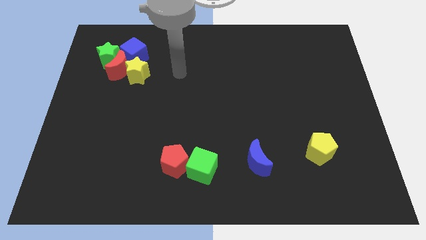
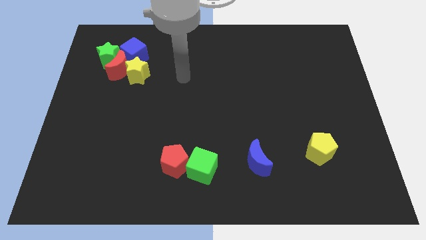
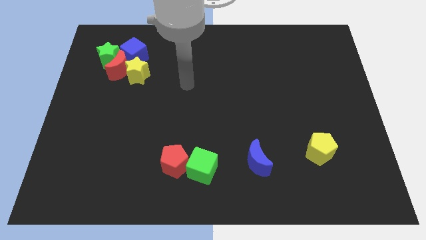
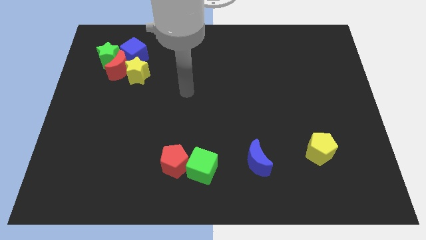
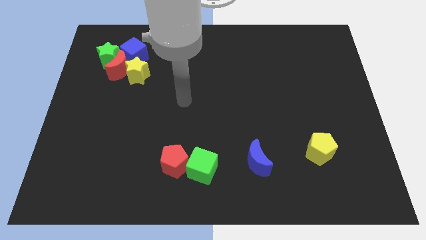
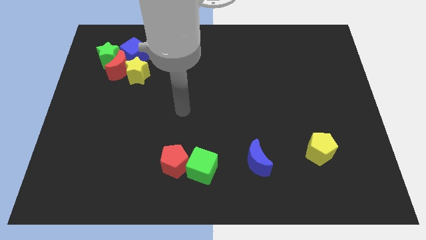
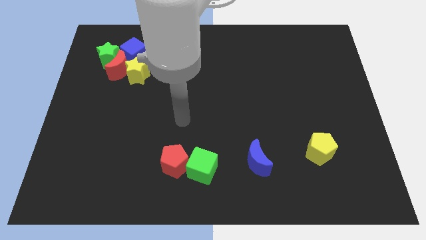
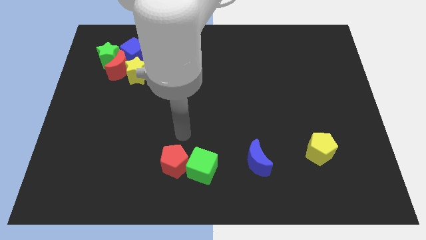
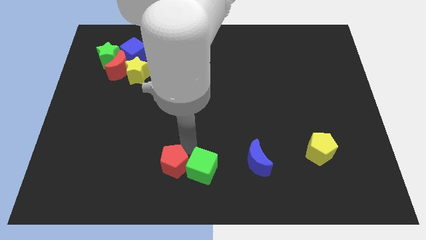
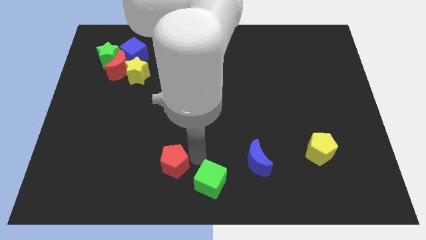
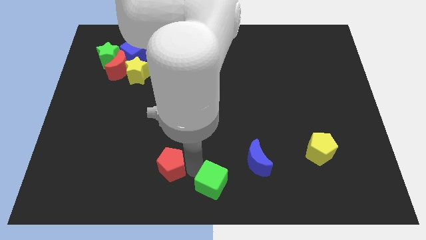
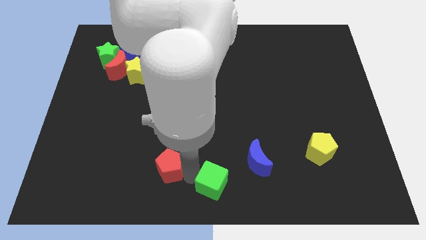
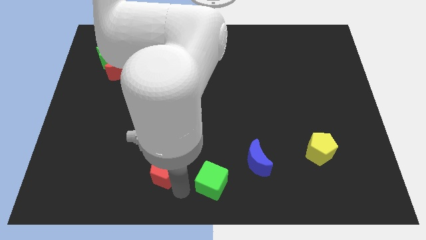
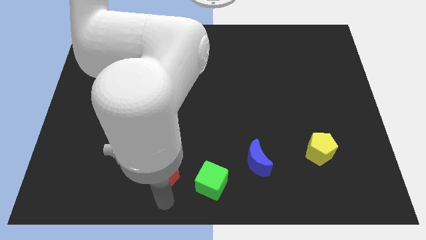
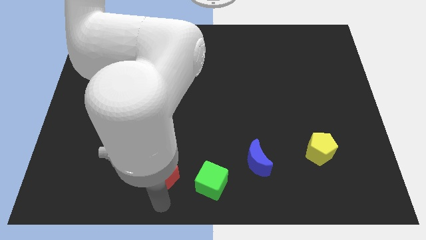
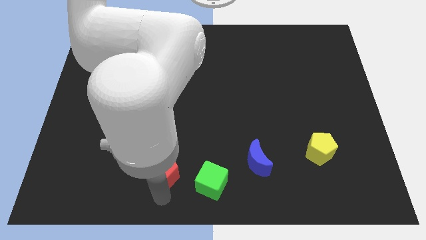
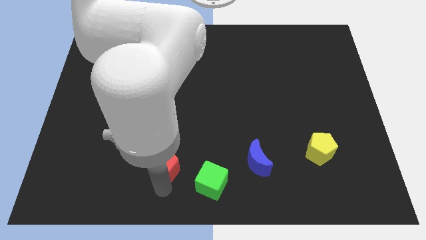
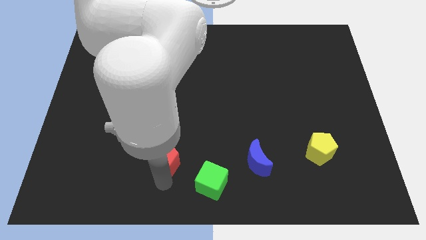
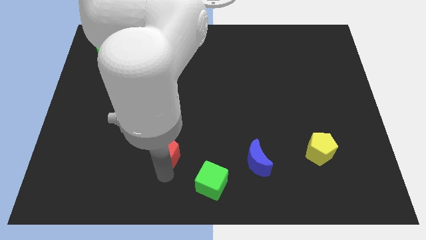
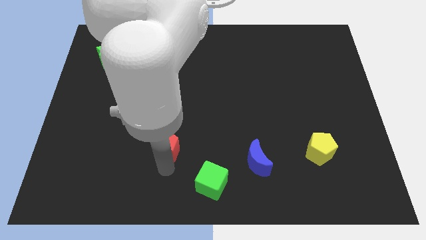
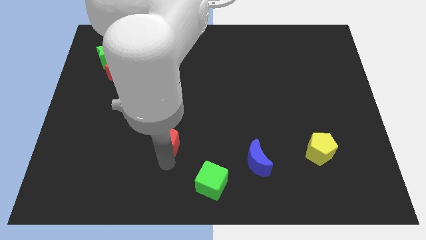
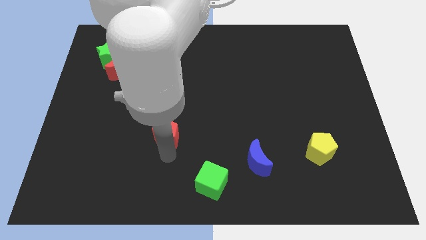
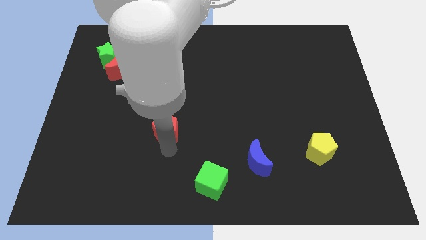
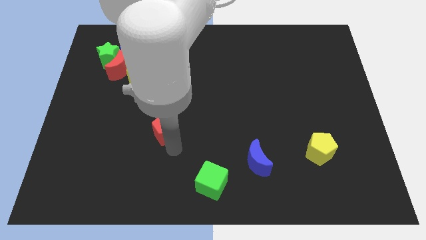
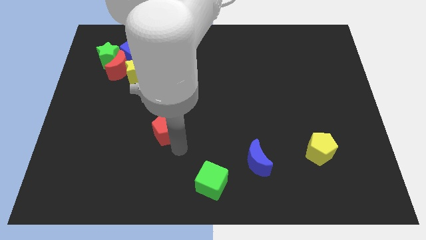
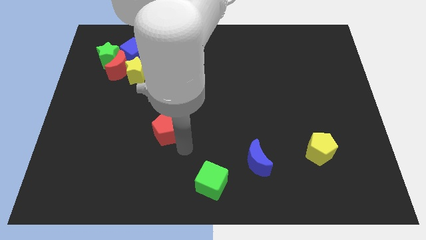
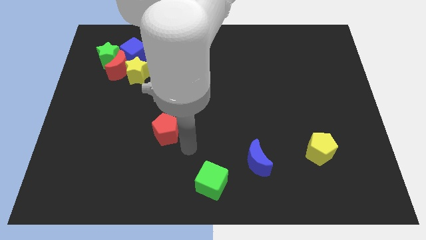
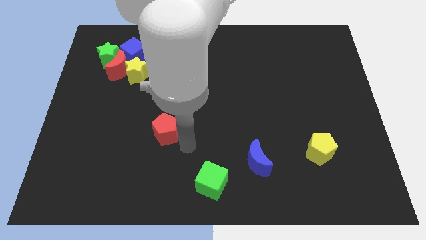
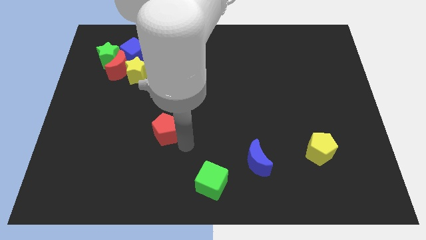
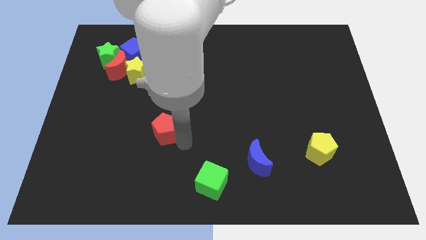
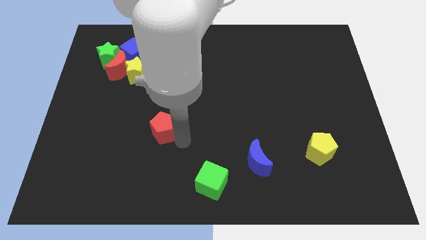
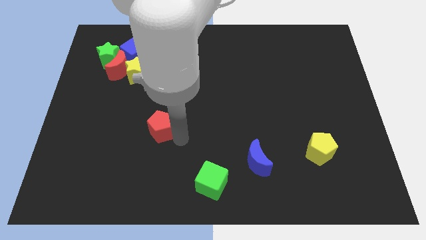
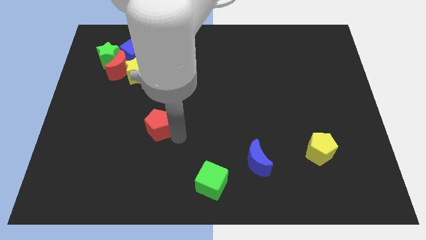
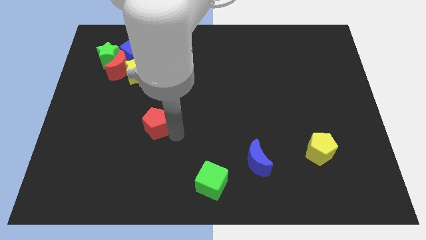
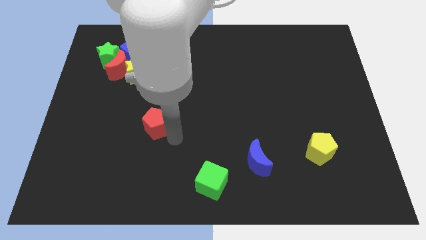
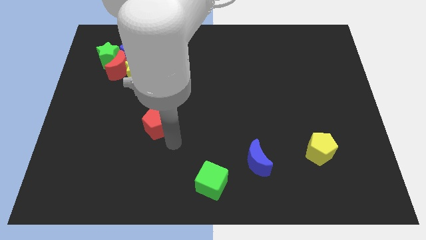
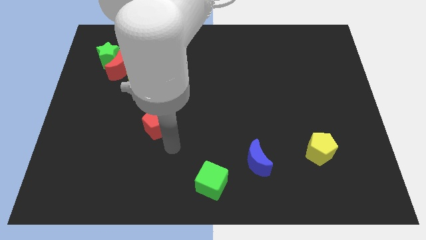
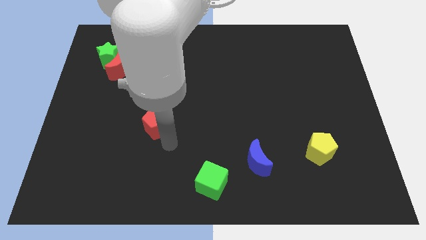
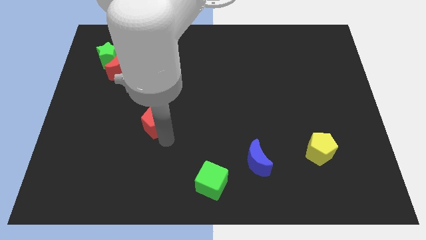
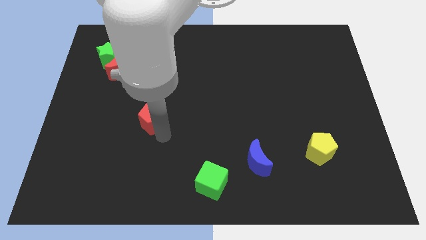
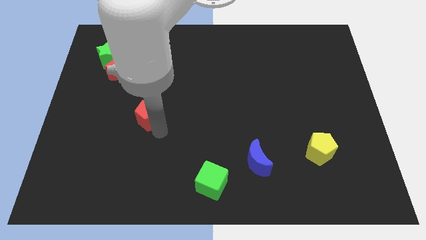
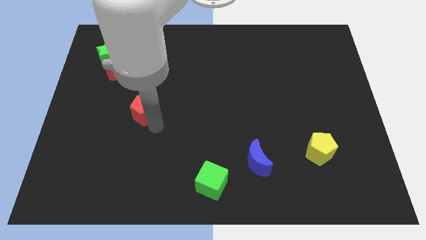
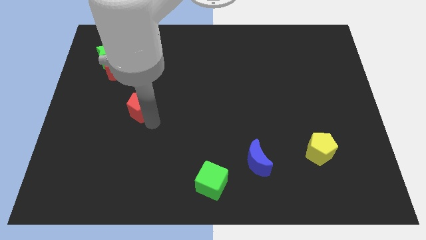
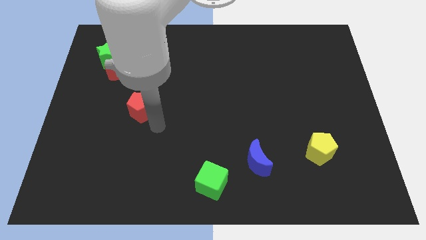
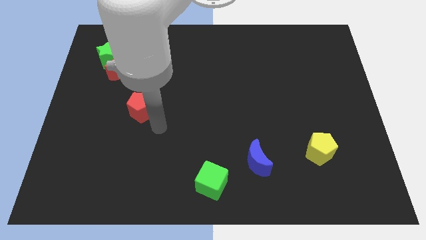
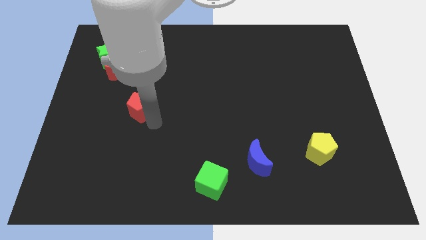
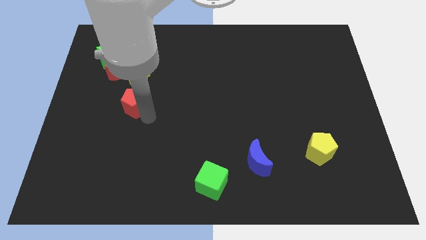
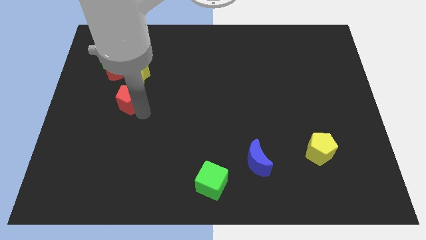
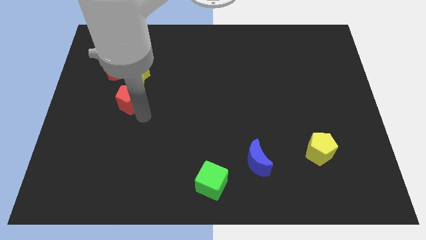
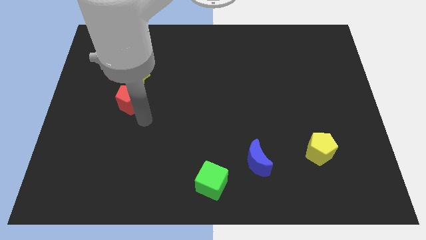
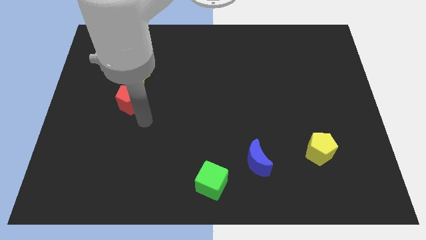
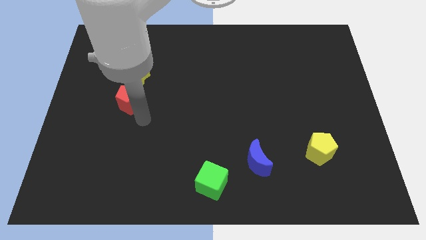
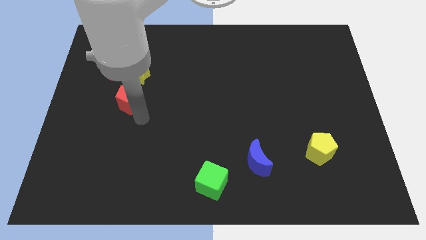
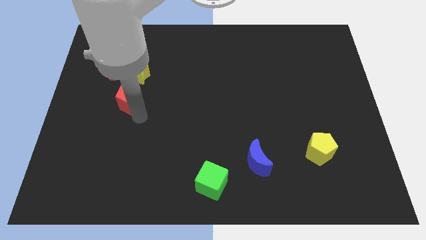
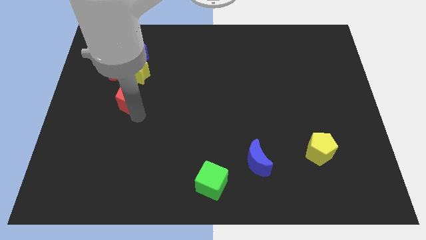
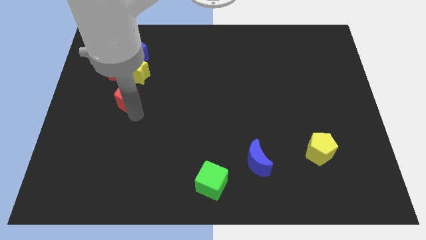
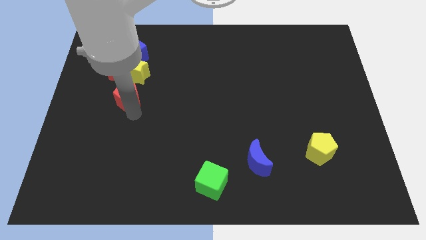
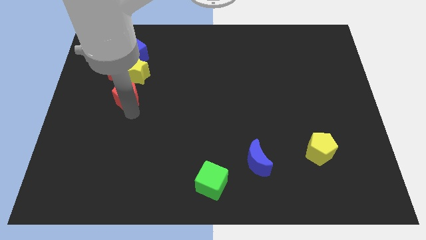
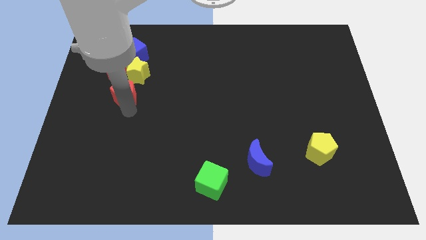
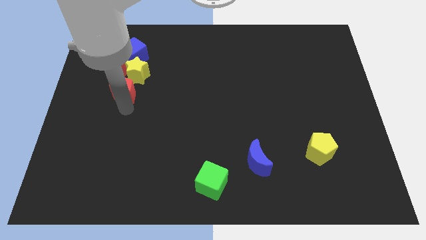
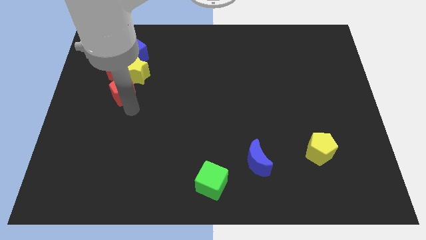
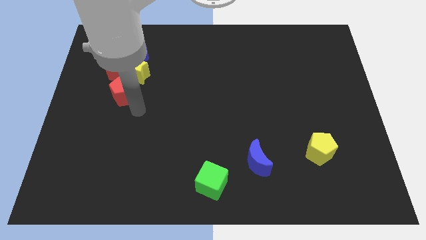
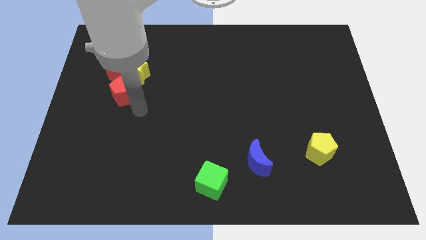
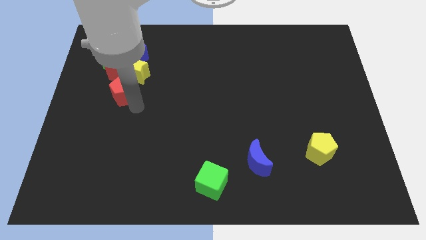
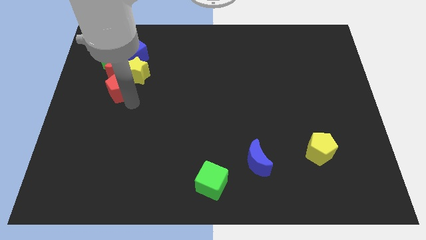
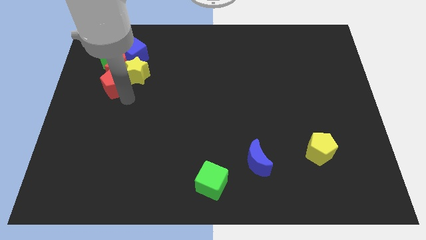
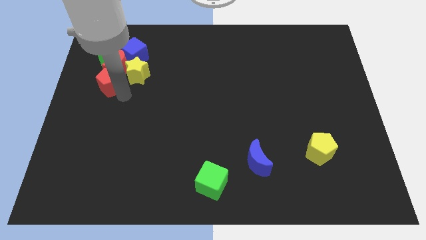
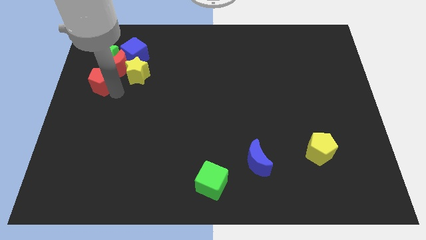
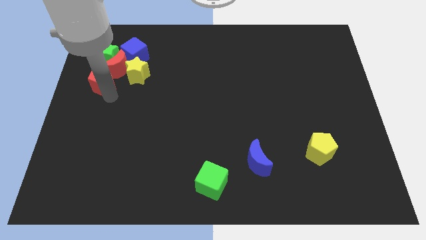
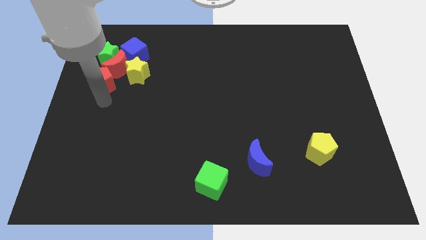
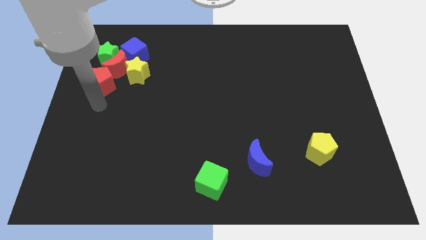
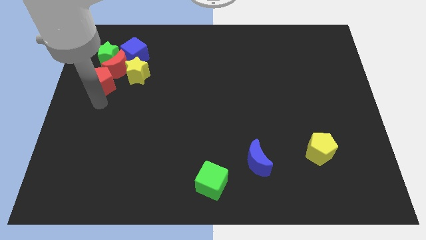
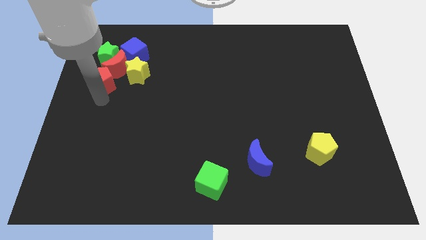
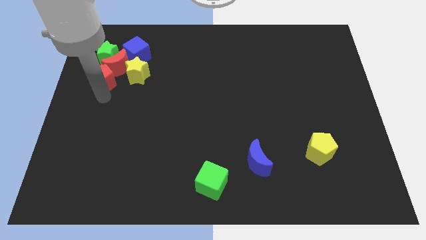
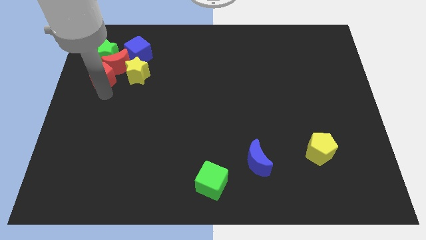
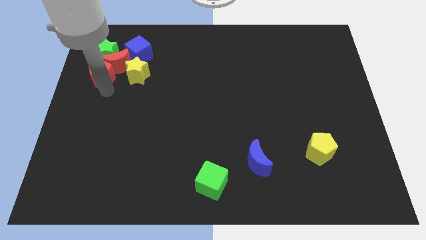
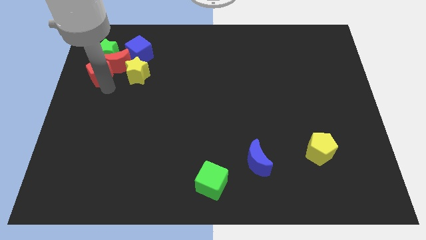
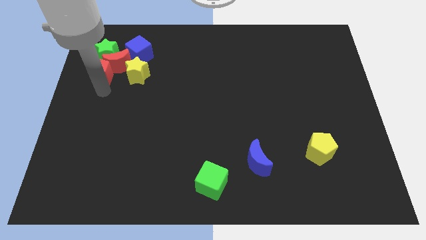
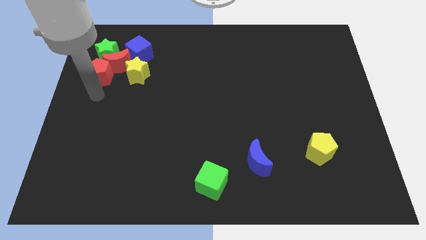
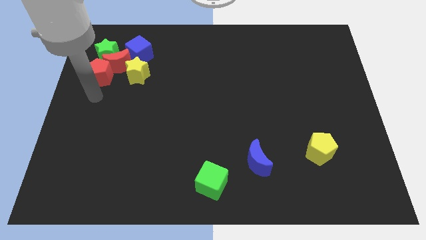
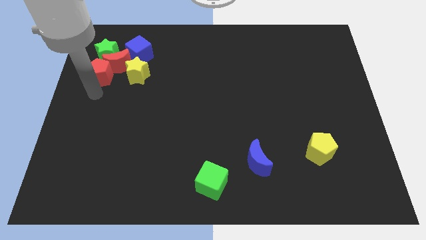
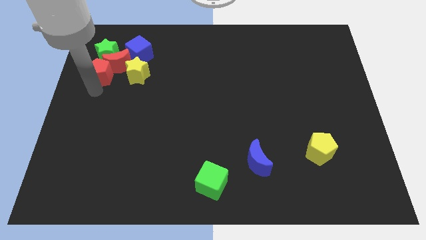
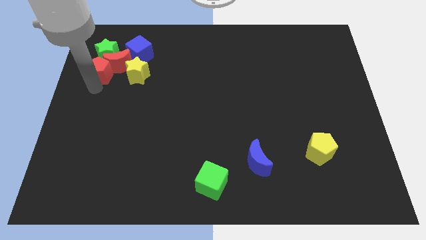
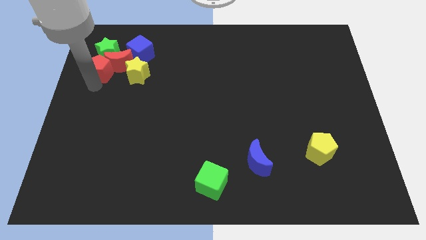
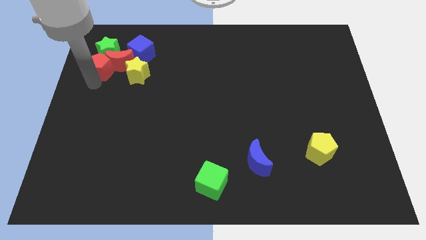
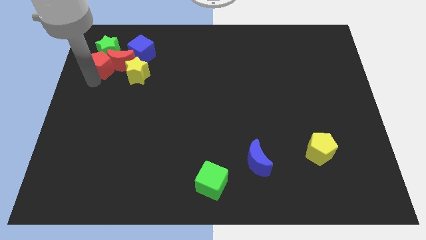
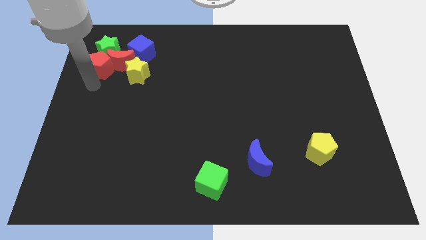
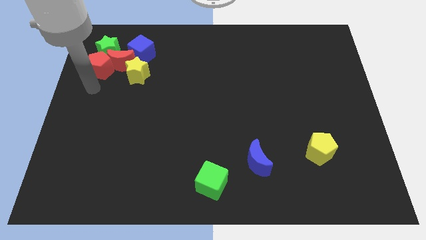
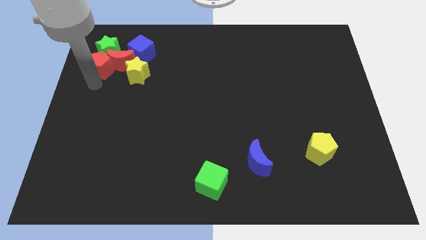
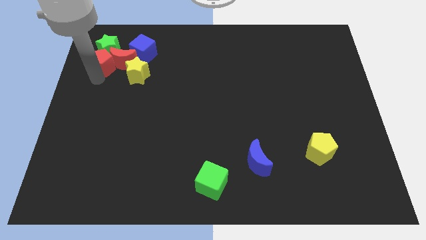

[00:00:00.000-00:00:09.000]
push the red pentagon next to the green star
